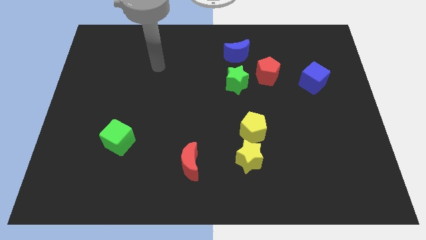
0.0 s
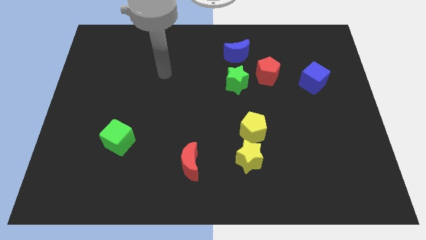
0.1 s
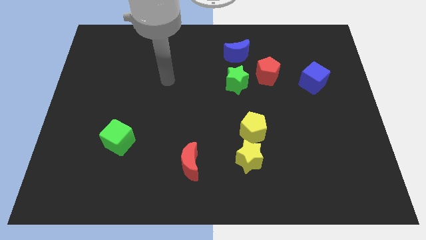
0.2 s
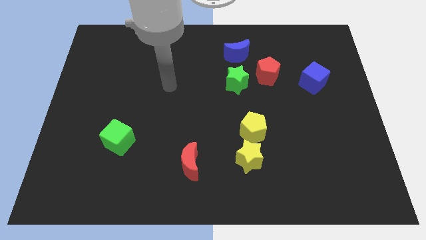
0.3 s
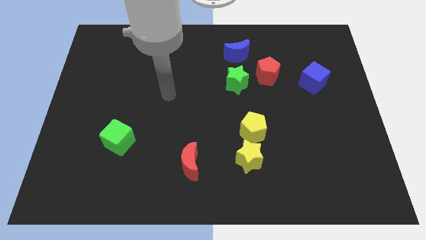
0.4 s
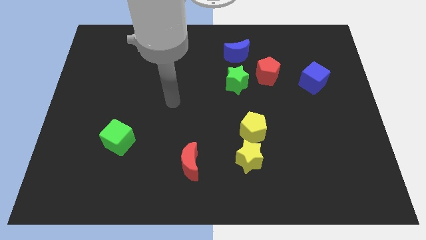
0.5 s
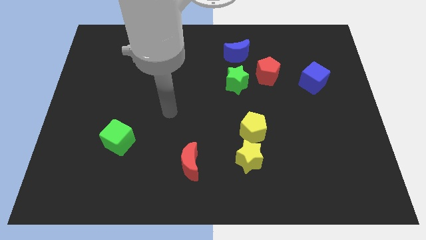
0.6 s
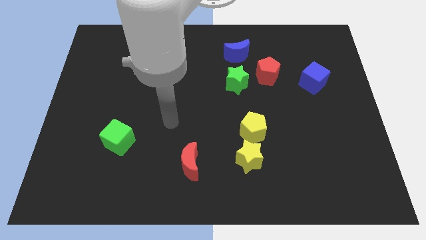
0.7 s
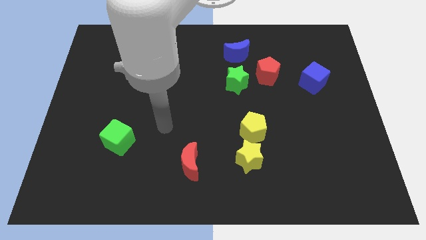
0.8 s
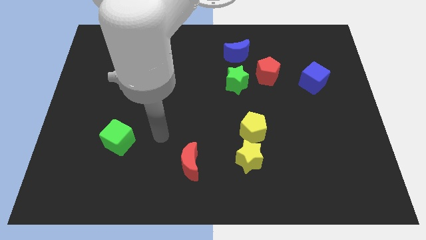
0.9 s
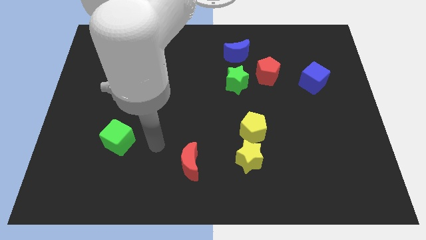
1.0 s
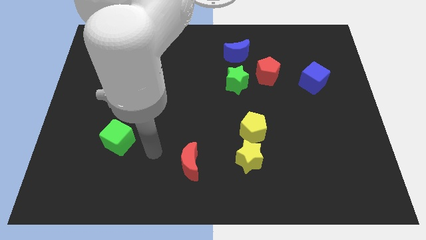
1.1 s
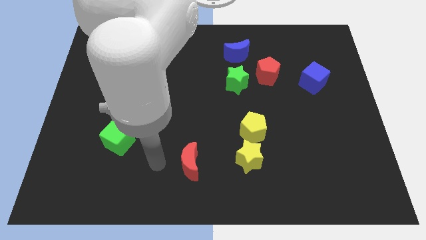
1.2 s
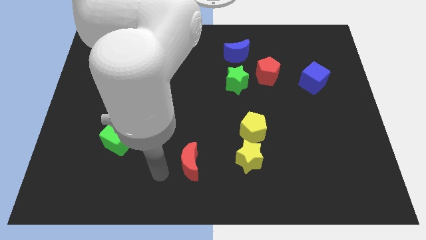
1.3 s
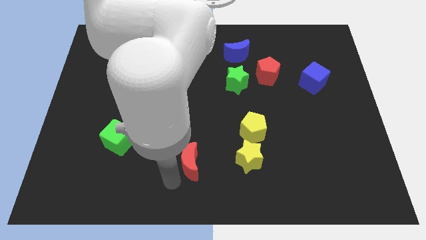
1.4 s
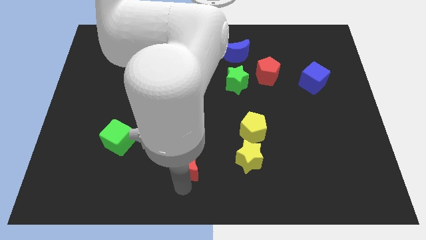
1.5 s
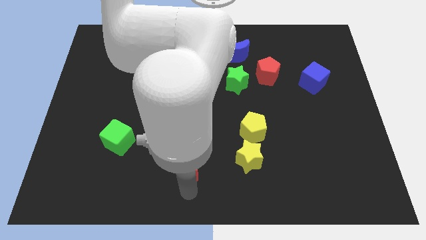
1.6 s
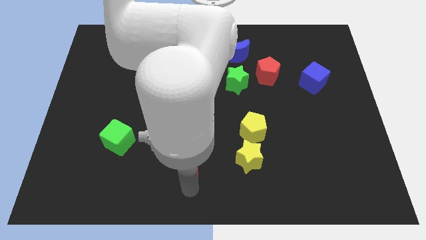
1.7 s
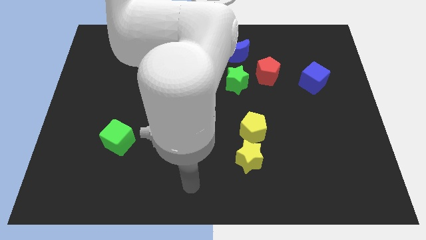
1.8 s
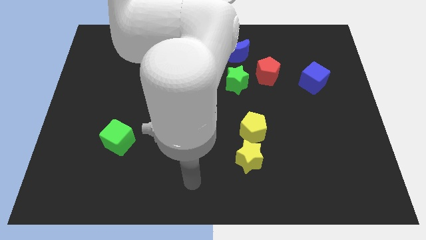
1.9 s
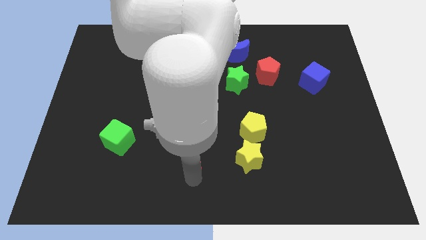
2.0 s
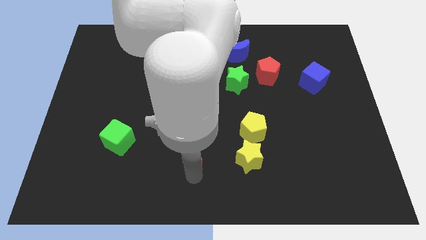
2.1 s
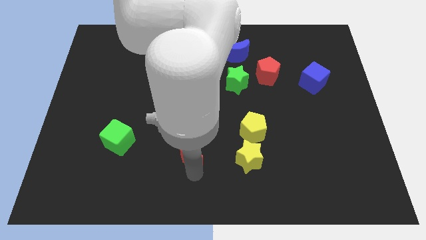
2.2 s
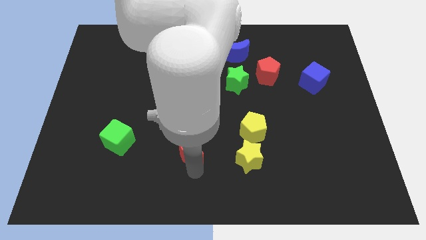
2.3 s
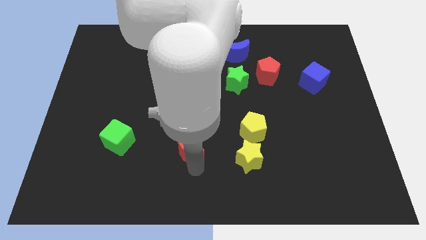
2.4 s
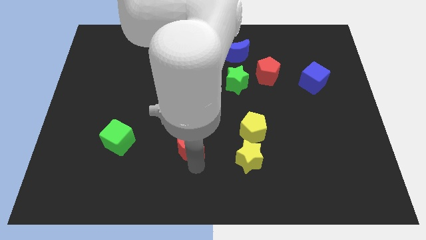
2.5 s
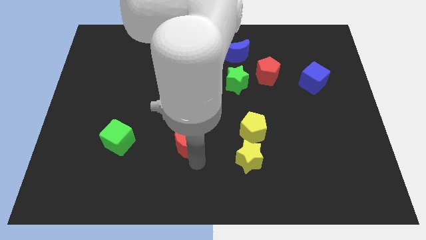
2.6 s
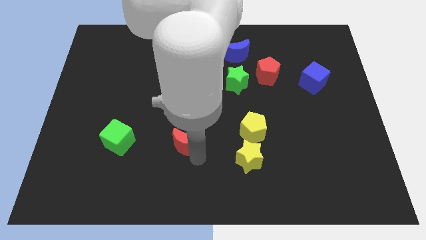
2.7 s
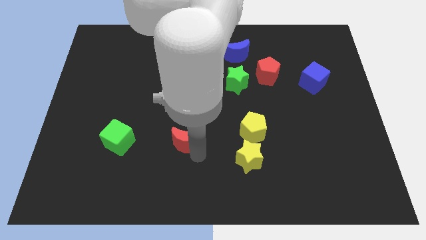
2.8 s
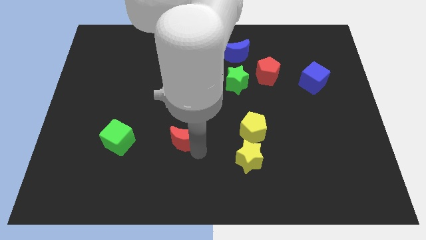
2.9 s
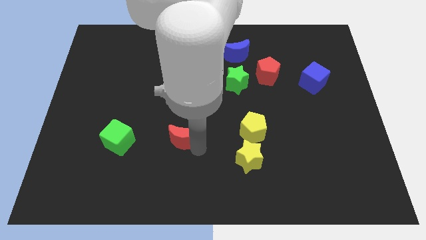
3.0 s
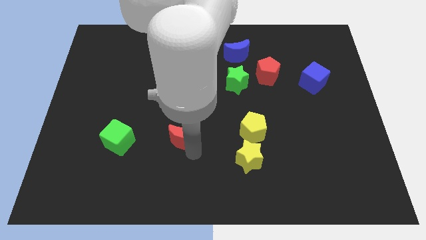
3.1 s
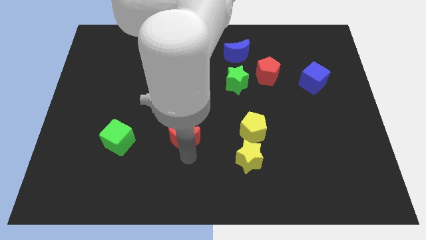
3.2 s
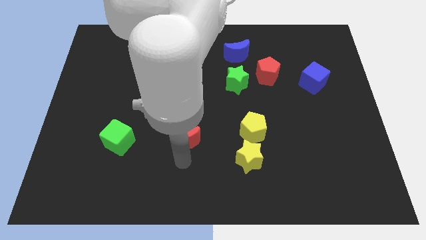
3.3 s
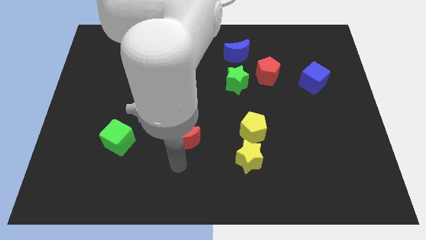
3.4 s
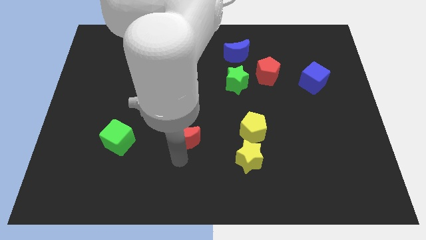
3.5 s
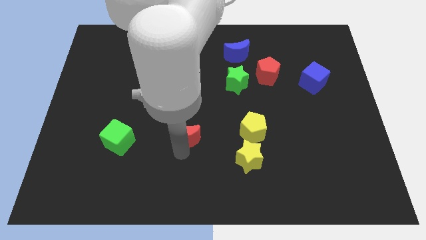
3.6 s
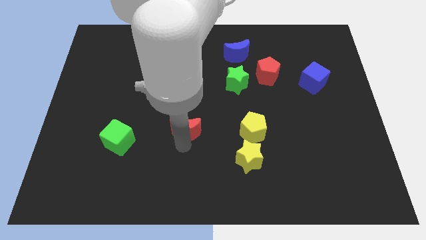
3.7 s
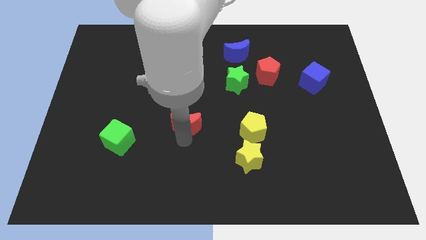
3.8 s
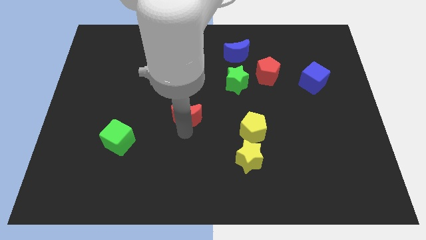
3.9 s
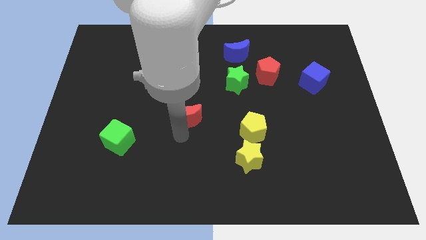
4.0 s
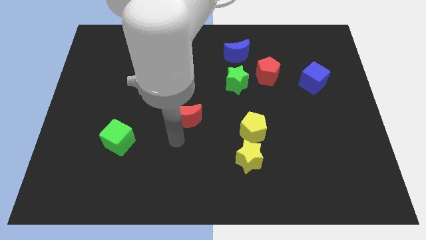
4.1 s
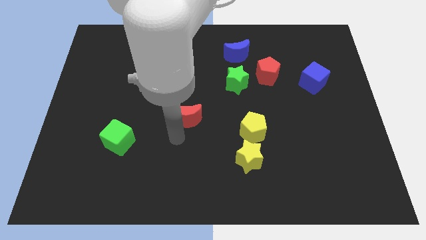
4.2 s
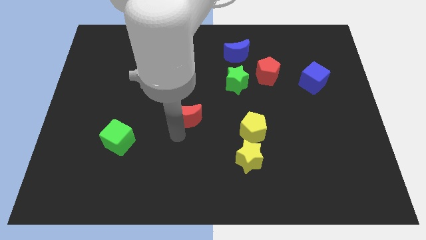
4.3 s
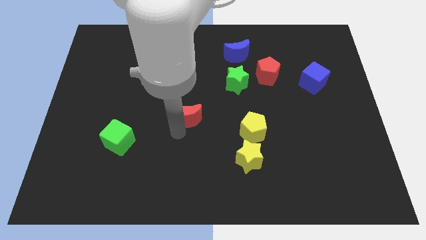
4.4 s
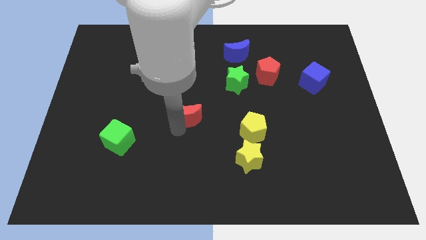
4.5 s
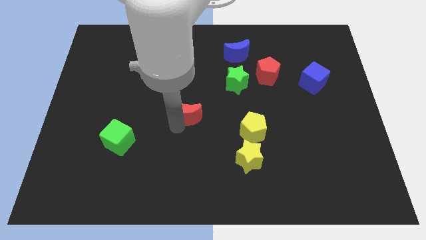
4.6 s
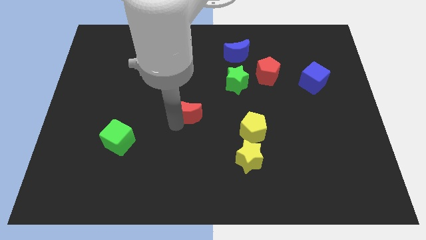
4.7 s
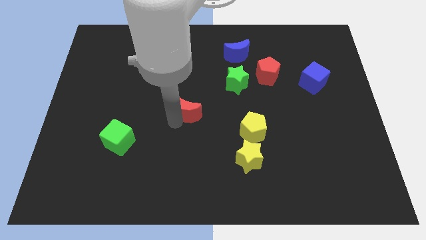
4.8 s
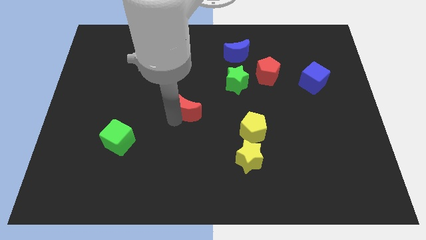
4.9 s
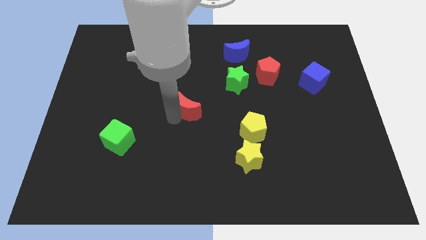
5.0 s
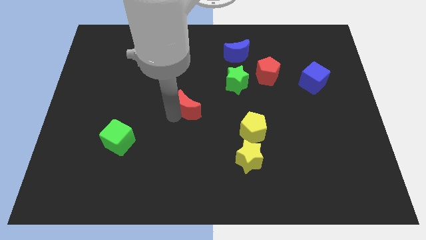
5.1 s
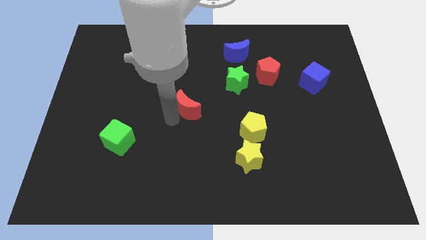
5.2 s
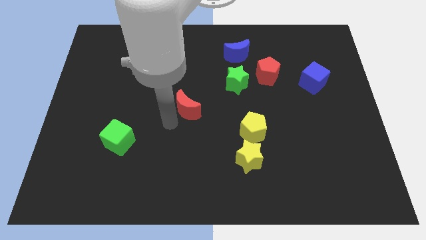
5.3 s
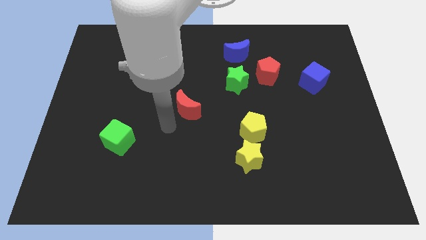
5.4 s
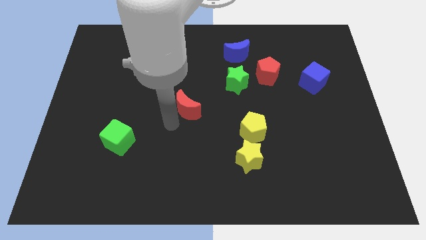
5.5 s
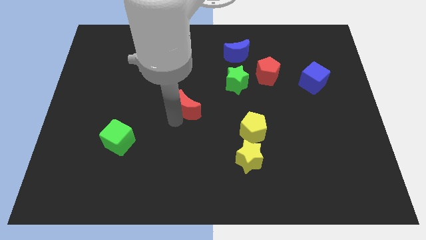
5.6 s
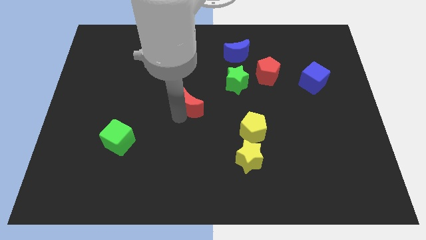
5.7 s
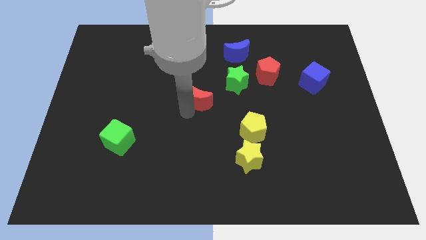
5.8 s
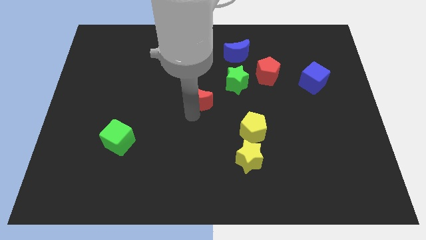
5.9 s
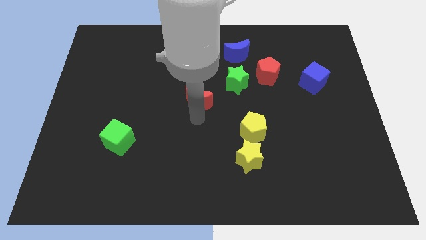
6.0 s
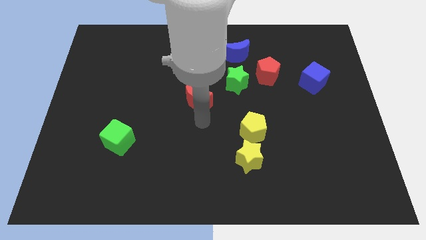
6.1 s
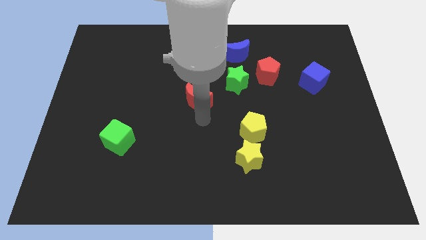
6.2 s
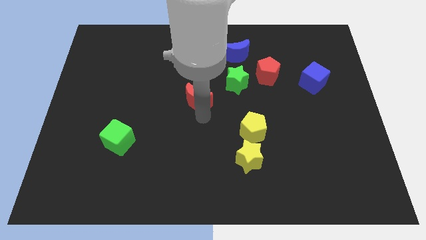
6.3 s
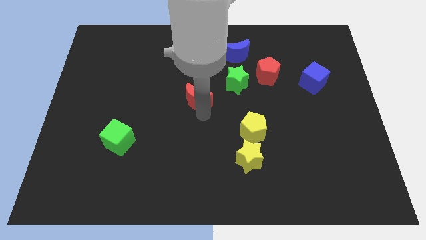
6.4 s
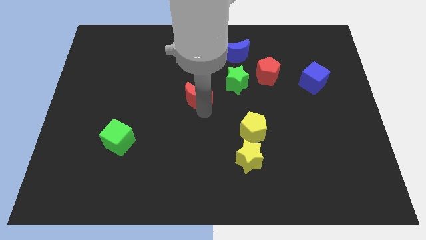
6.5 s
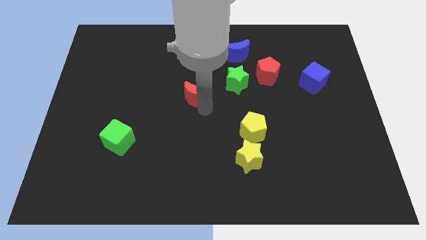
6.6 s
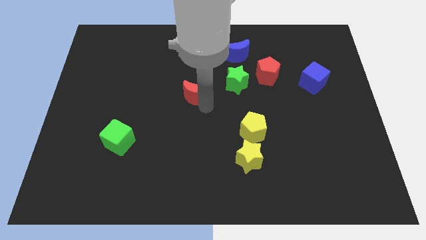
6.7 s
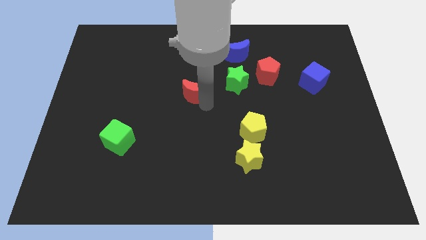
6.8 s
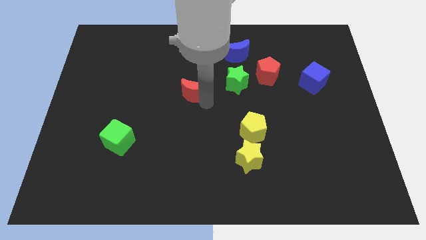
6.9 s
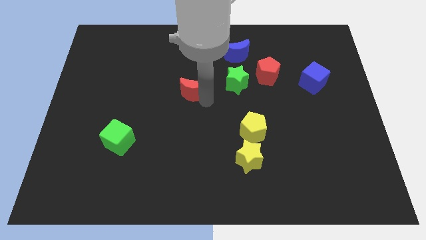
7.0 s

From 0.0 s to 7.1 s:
move the red moon upwards

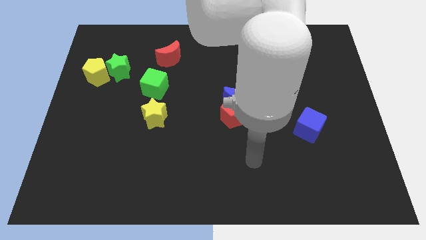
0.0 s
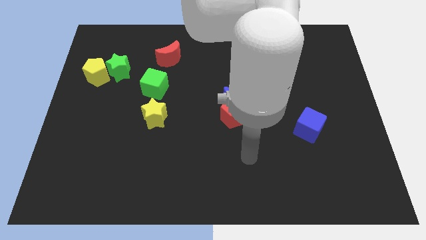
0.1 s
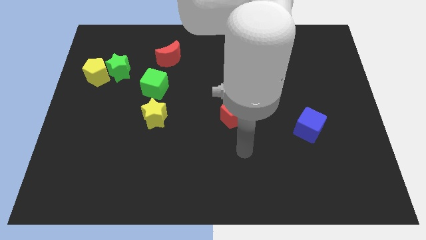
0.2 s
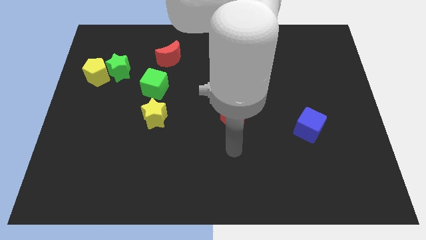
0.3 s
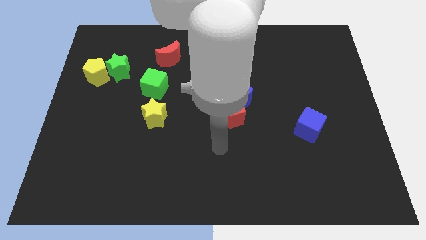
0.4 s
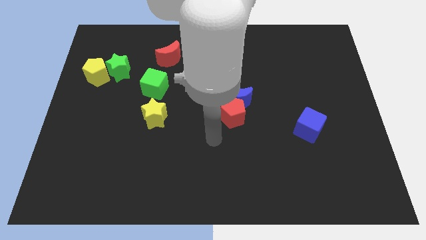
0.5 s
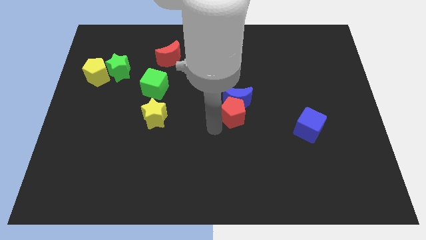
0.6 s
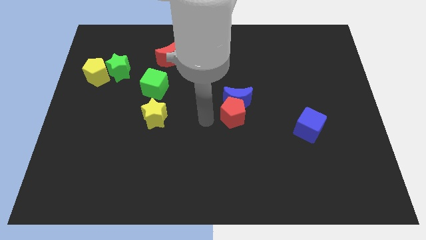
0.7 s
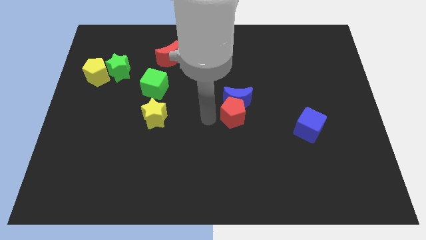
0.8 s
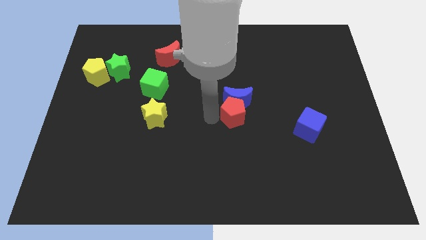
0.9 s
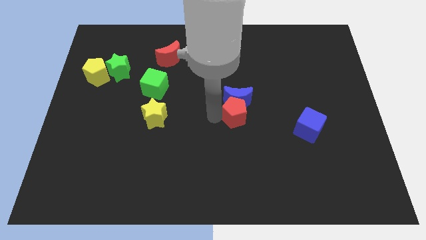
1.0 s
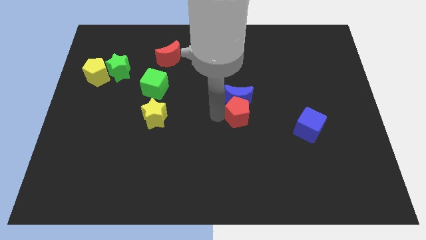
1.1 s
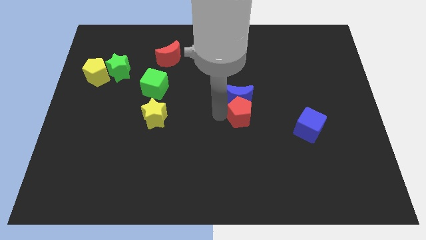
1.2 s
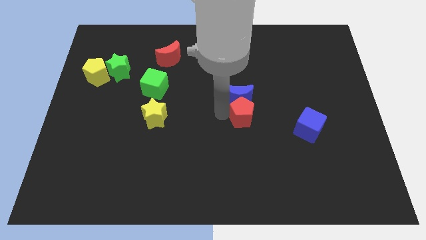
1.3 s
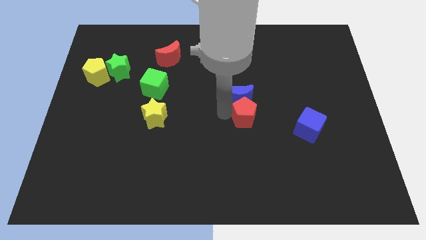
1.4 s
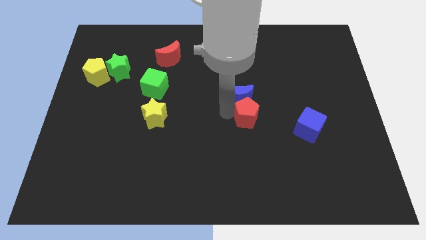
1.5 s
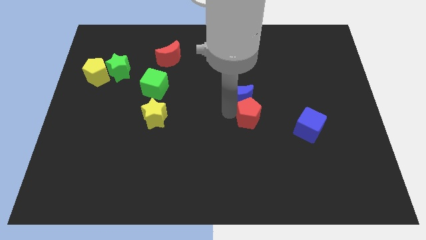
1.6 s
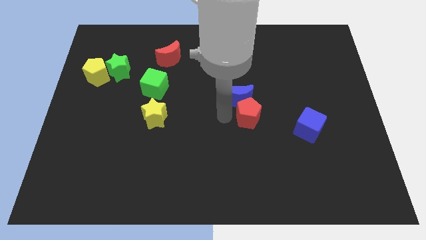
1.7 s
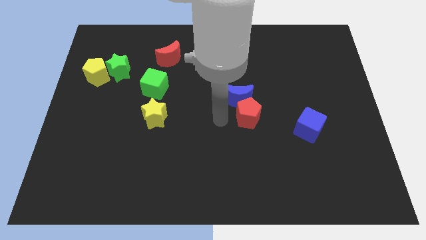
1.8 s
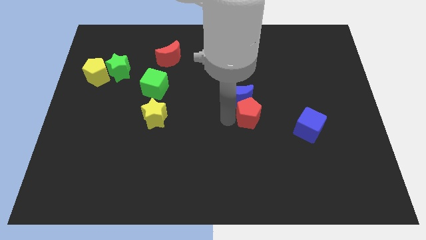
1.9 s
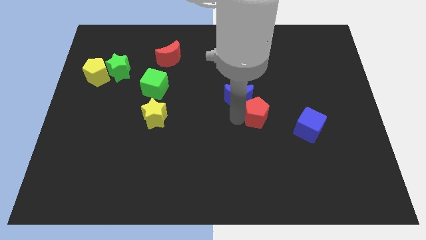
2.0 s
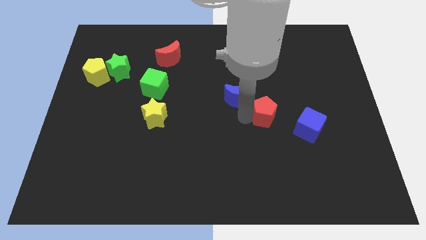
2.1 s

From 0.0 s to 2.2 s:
move the red pentagon a little bit to the right
